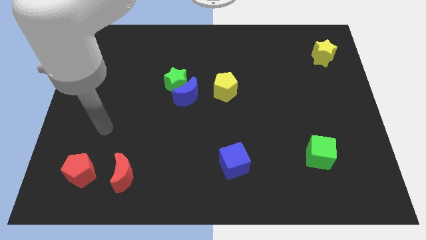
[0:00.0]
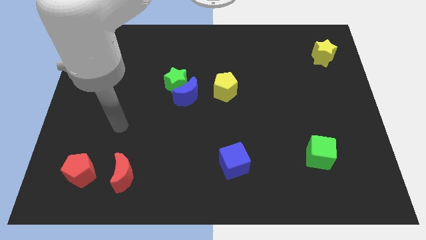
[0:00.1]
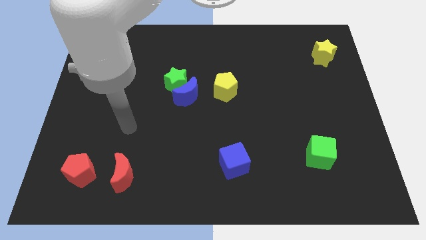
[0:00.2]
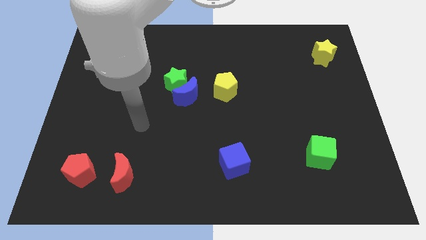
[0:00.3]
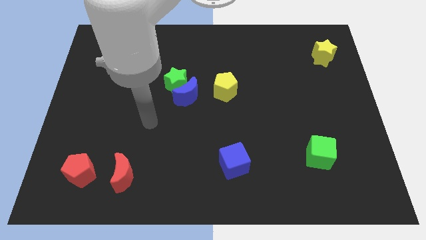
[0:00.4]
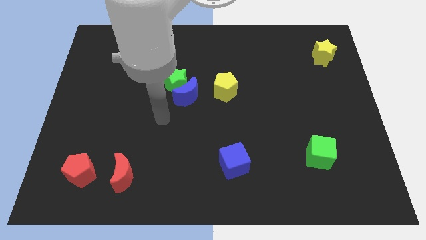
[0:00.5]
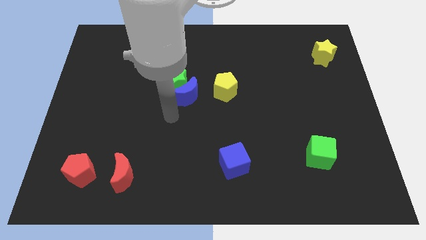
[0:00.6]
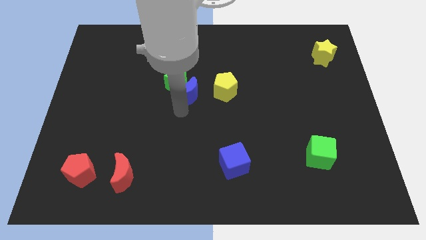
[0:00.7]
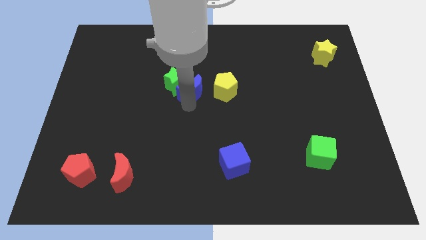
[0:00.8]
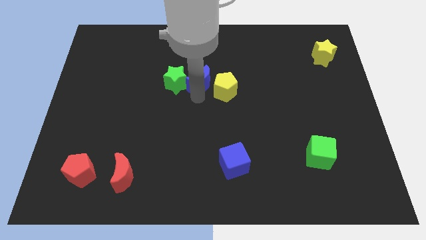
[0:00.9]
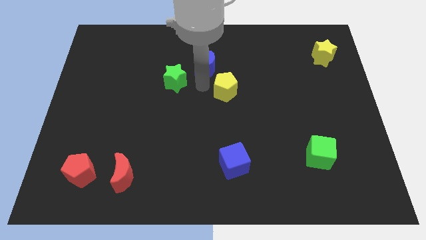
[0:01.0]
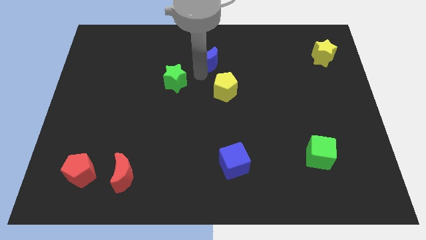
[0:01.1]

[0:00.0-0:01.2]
separate the green star from the blue moon

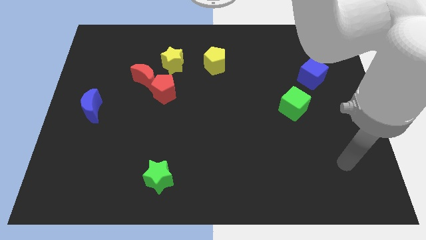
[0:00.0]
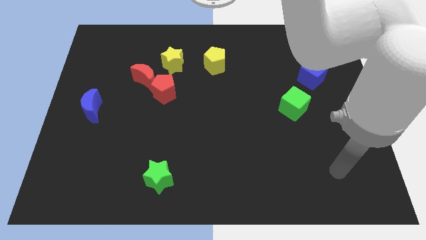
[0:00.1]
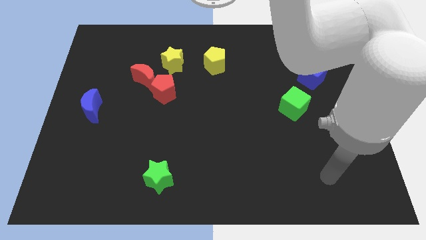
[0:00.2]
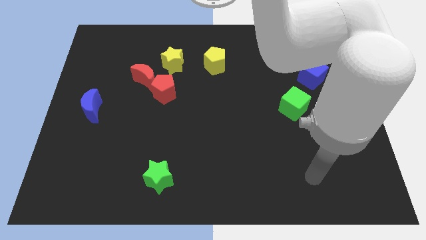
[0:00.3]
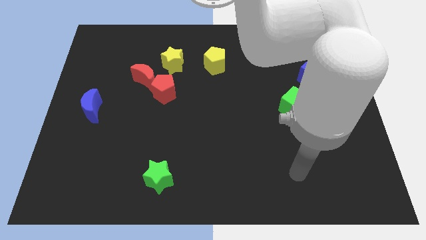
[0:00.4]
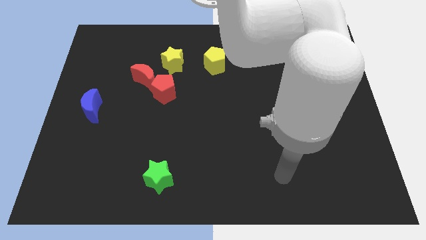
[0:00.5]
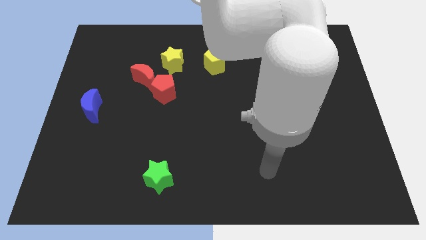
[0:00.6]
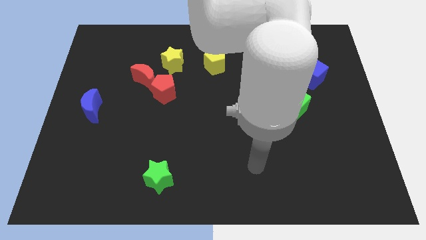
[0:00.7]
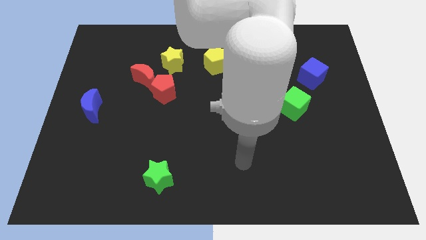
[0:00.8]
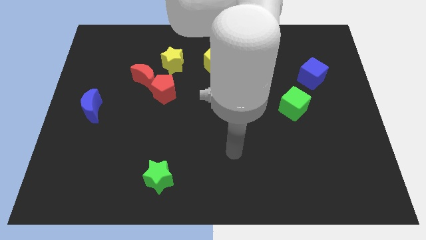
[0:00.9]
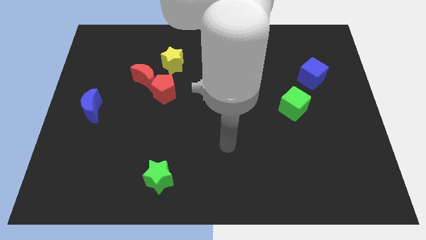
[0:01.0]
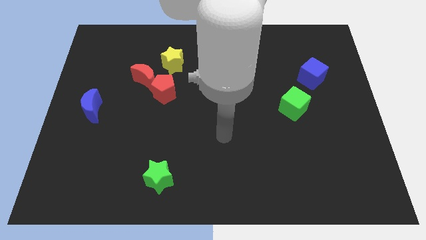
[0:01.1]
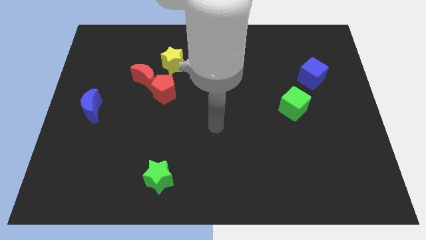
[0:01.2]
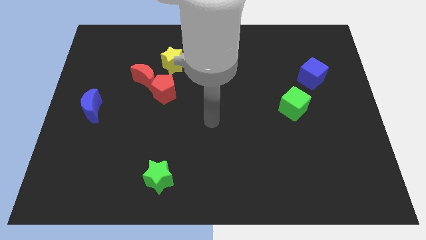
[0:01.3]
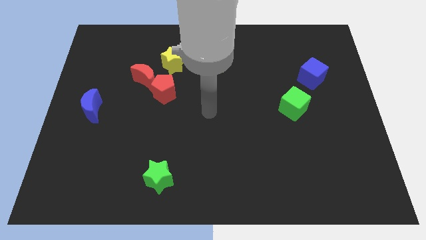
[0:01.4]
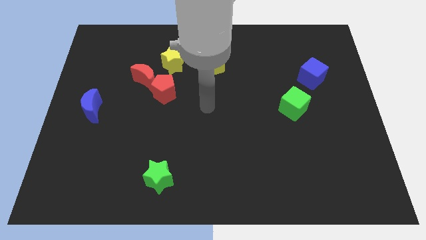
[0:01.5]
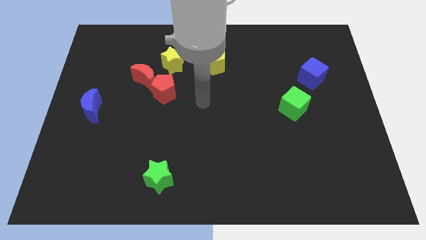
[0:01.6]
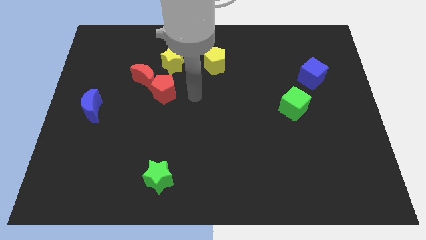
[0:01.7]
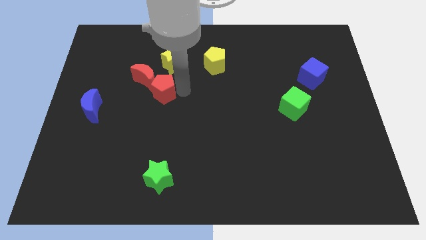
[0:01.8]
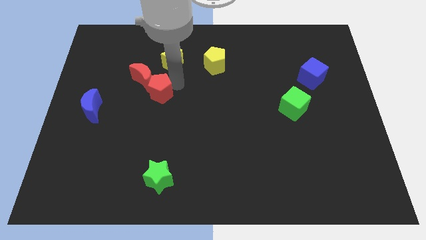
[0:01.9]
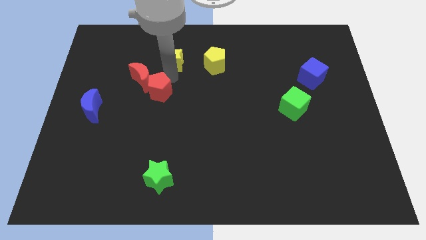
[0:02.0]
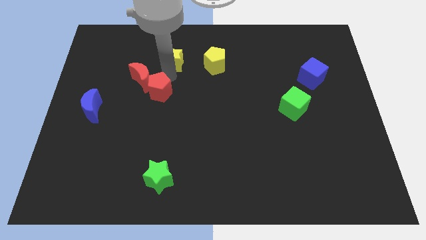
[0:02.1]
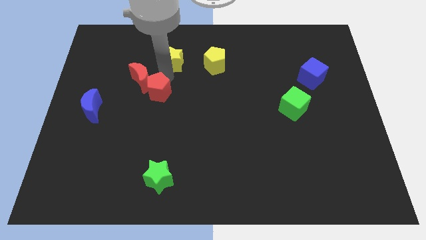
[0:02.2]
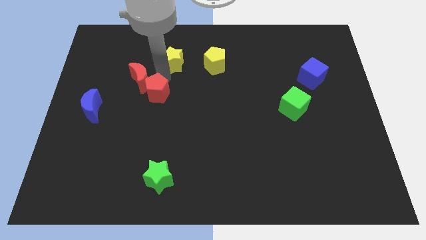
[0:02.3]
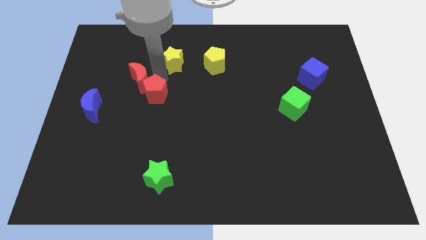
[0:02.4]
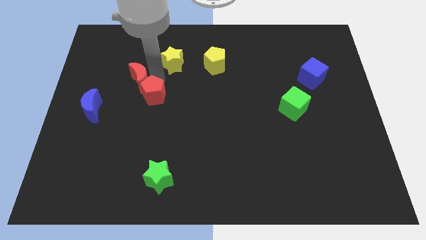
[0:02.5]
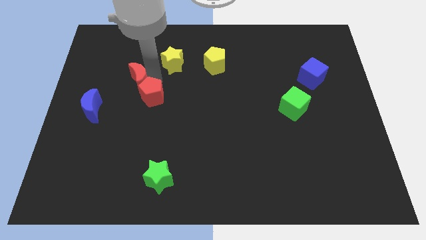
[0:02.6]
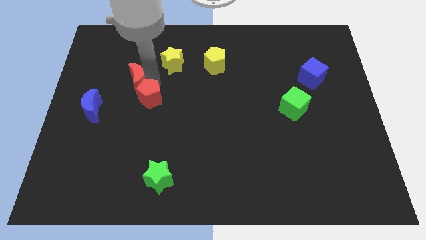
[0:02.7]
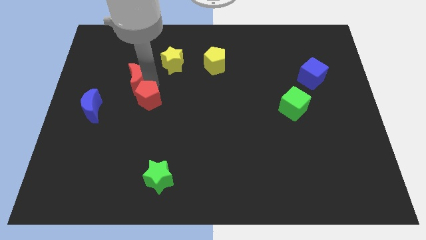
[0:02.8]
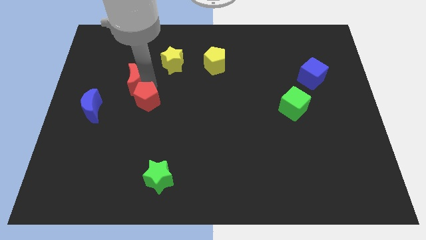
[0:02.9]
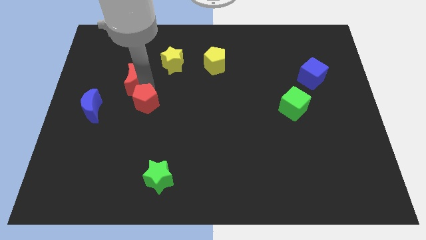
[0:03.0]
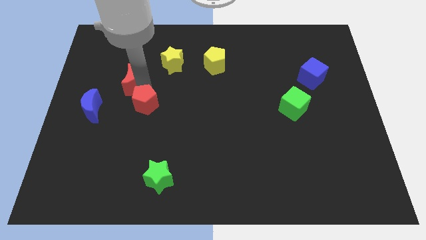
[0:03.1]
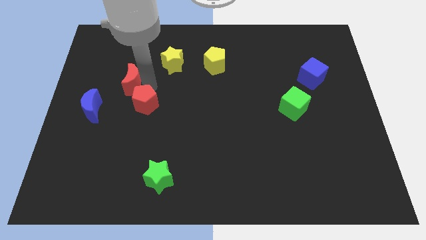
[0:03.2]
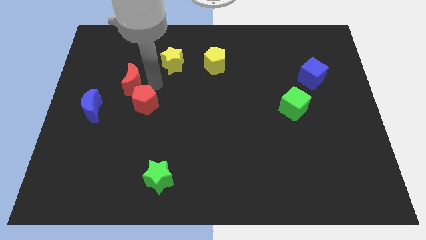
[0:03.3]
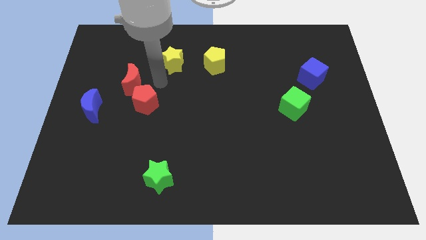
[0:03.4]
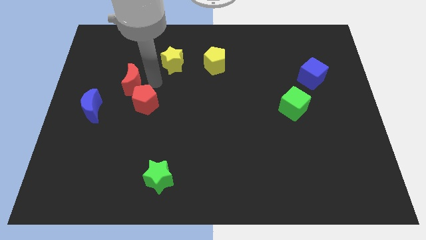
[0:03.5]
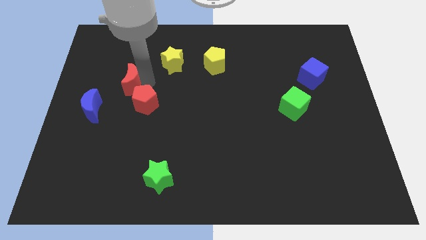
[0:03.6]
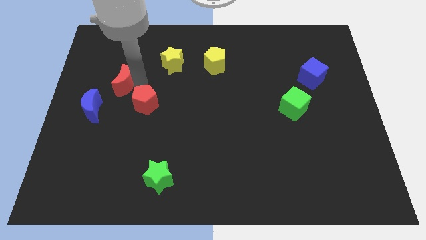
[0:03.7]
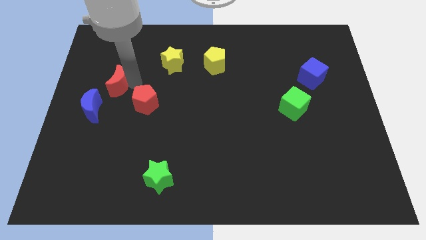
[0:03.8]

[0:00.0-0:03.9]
move the red moon away from the red pentagon and yellow star

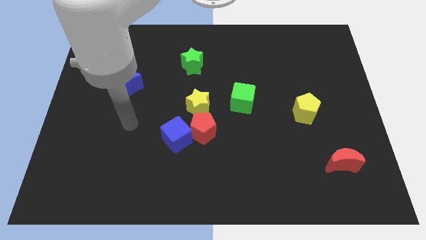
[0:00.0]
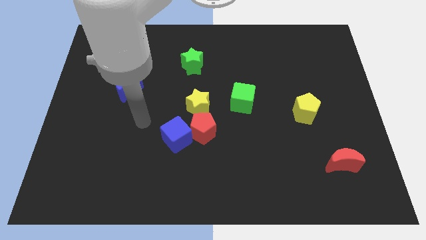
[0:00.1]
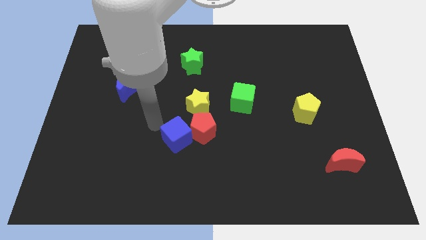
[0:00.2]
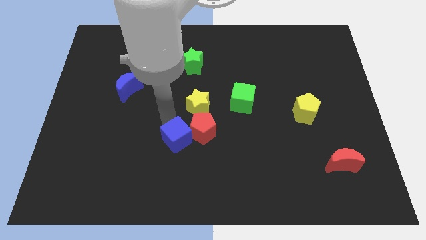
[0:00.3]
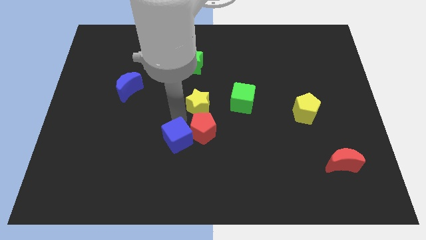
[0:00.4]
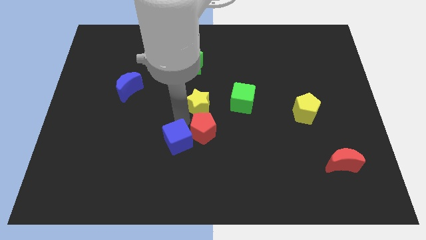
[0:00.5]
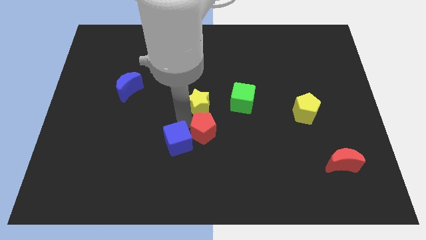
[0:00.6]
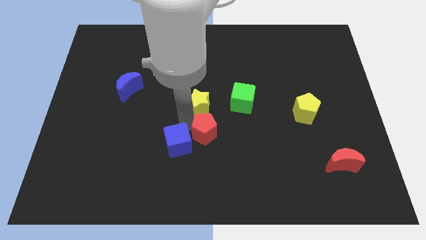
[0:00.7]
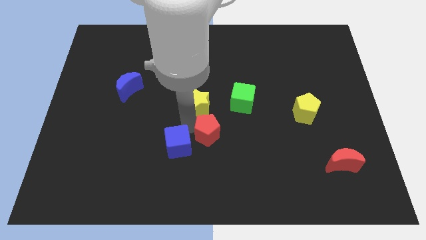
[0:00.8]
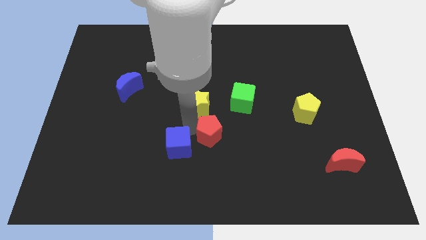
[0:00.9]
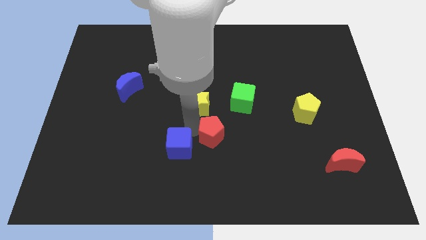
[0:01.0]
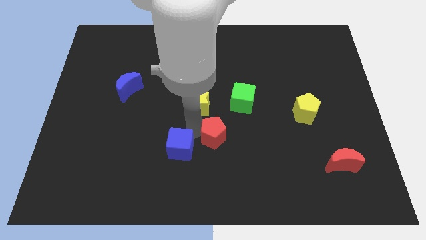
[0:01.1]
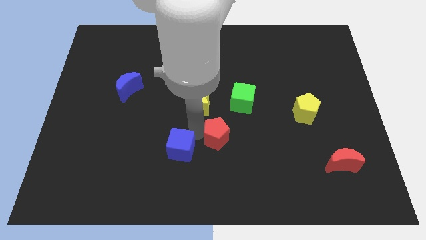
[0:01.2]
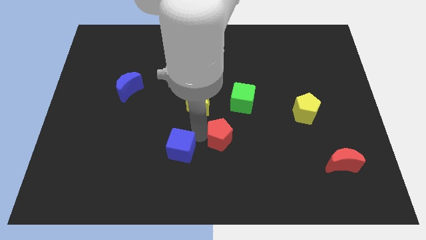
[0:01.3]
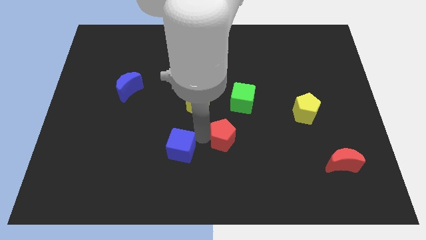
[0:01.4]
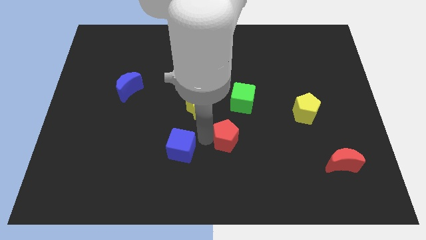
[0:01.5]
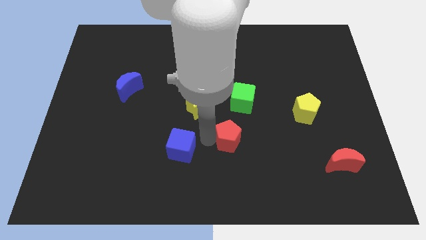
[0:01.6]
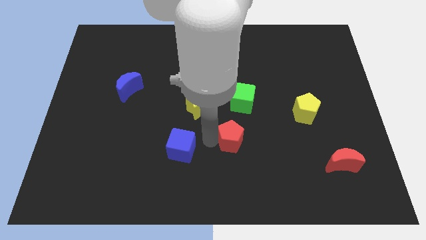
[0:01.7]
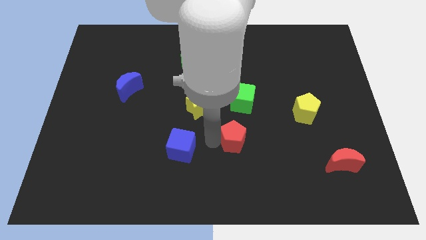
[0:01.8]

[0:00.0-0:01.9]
separate the red pentagon from the blue cube and yellow star

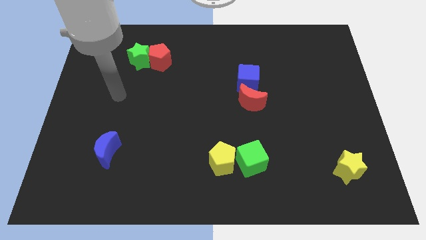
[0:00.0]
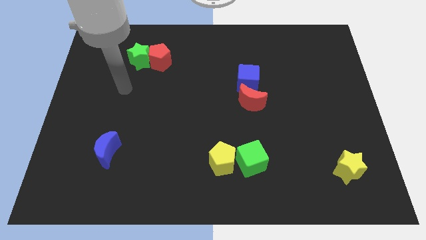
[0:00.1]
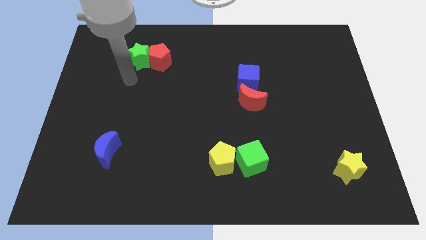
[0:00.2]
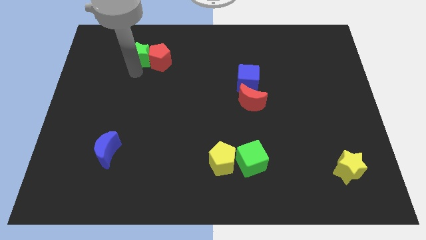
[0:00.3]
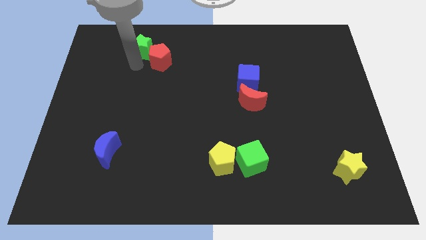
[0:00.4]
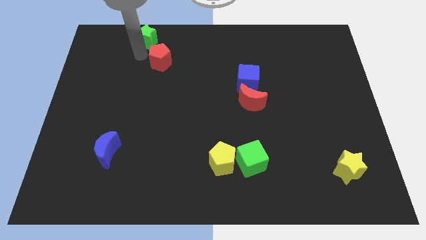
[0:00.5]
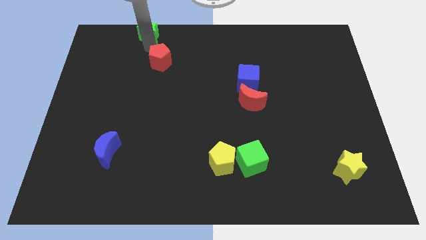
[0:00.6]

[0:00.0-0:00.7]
pull the red pentagon apart from the green star

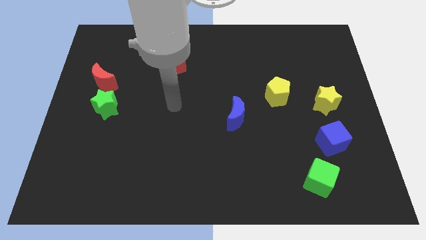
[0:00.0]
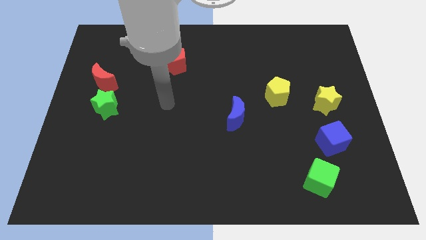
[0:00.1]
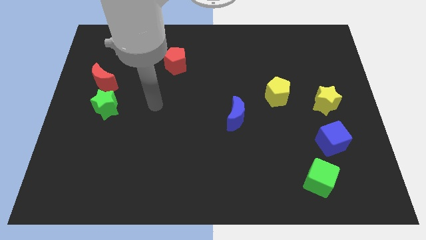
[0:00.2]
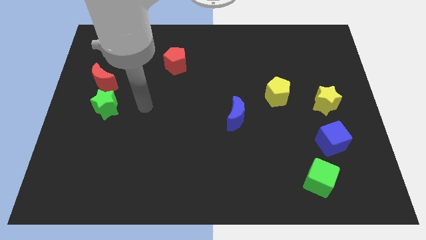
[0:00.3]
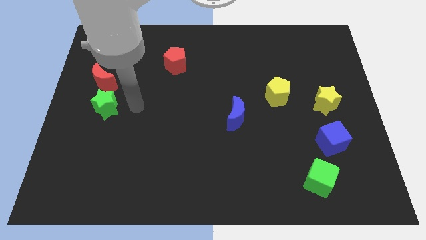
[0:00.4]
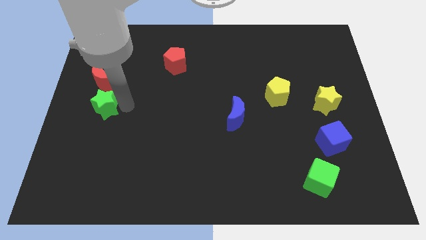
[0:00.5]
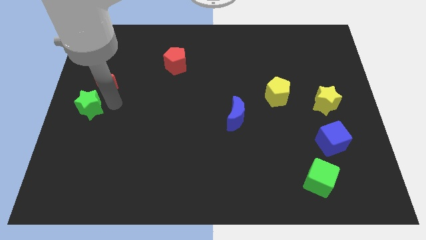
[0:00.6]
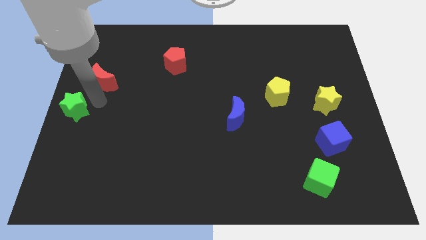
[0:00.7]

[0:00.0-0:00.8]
separate the red moon from the green star

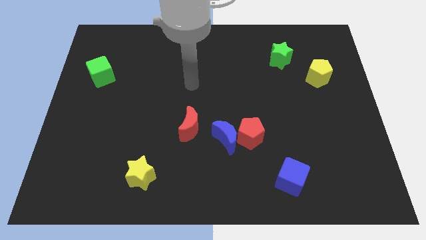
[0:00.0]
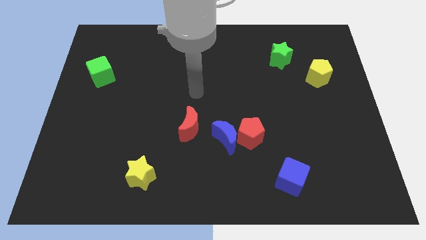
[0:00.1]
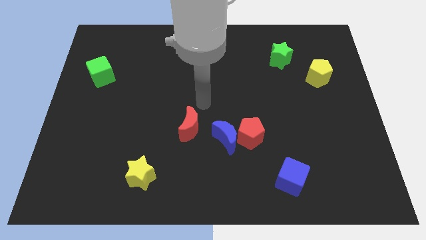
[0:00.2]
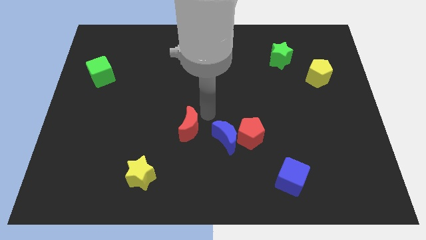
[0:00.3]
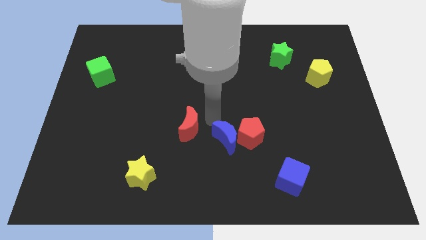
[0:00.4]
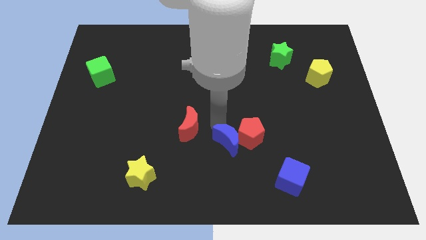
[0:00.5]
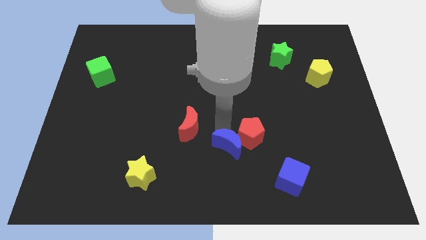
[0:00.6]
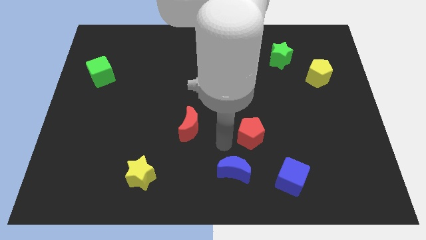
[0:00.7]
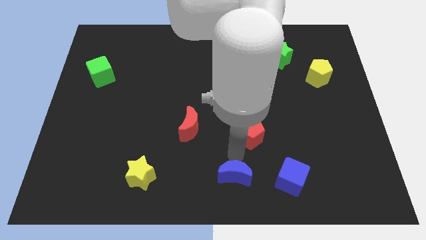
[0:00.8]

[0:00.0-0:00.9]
pull the red pentagon apart from the blue moon
